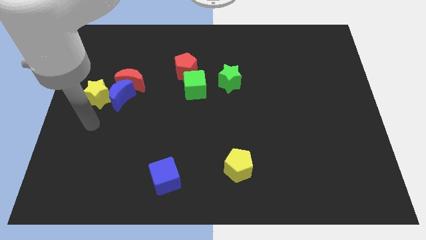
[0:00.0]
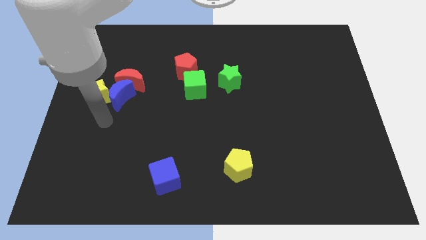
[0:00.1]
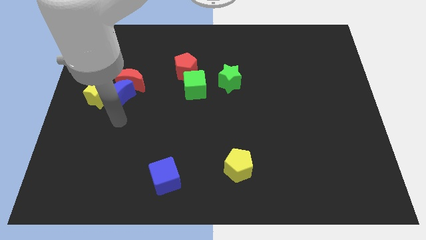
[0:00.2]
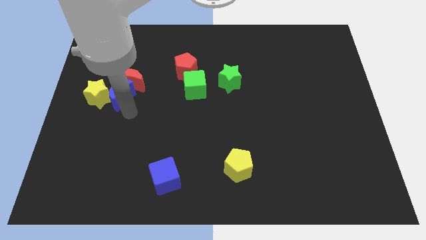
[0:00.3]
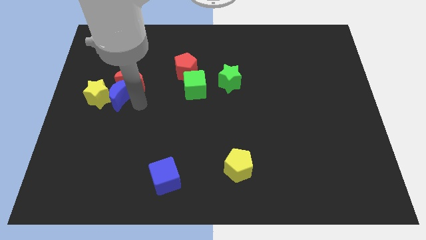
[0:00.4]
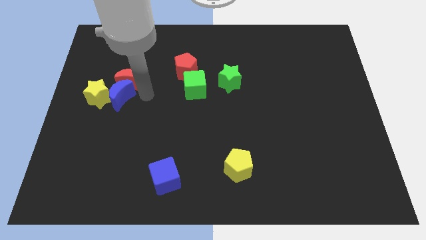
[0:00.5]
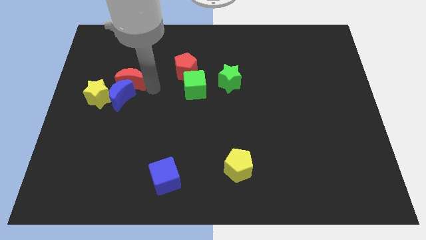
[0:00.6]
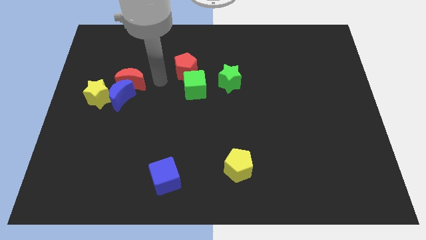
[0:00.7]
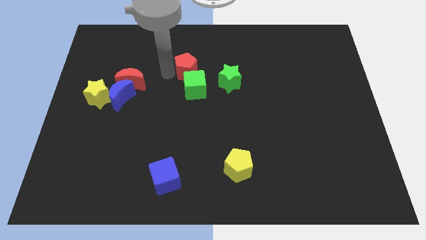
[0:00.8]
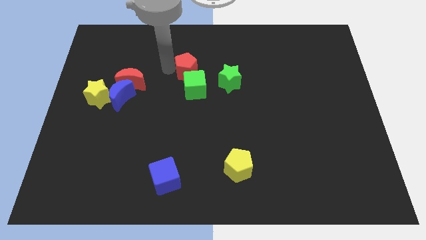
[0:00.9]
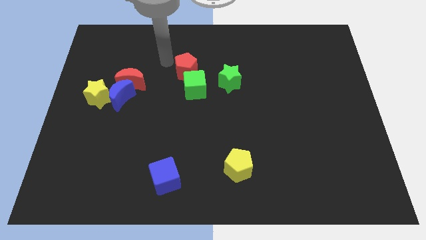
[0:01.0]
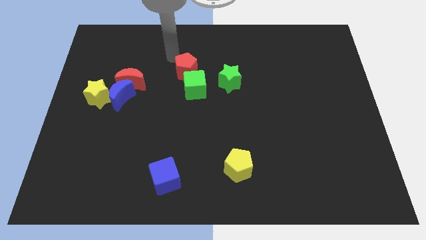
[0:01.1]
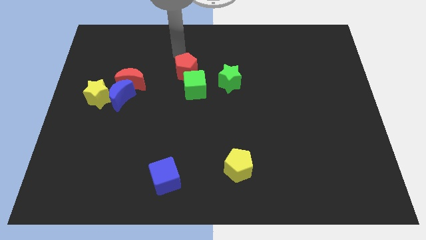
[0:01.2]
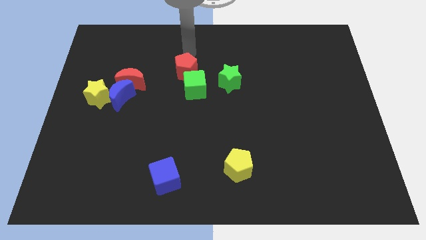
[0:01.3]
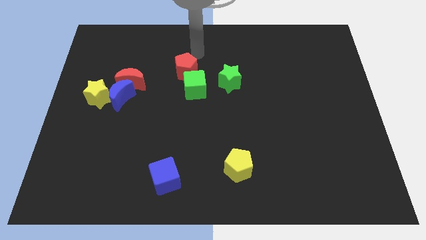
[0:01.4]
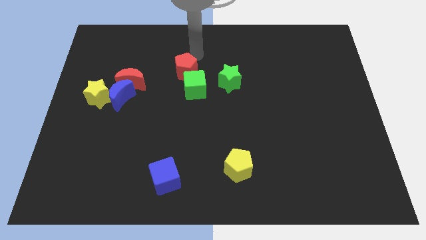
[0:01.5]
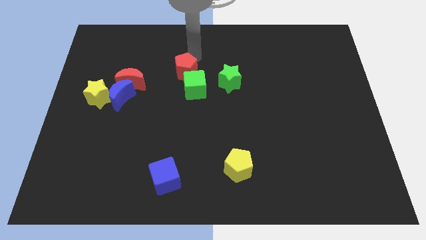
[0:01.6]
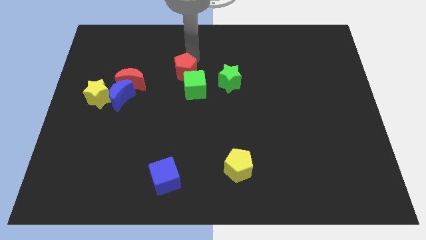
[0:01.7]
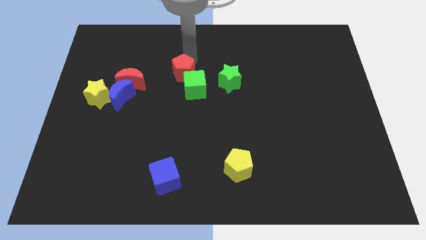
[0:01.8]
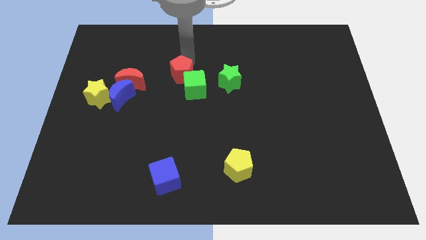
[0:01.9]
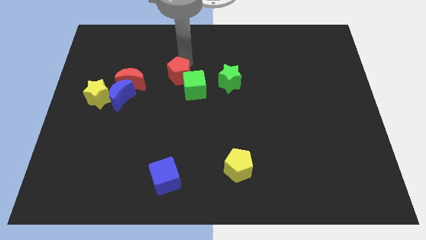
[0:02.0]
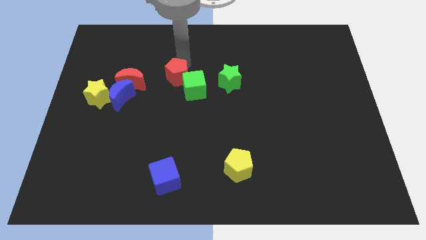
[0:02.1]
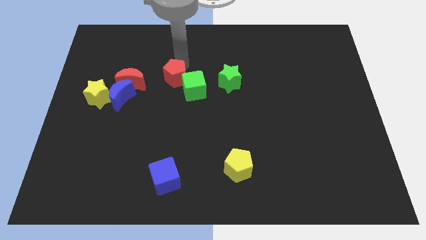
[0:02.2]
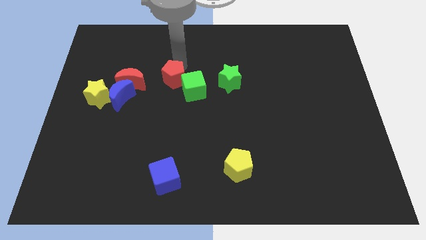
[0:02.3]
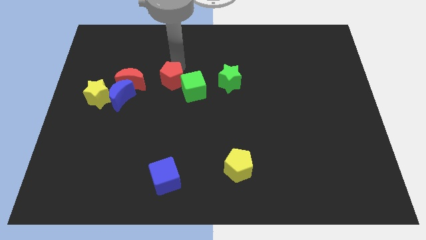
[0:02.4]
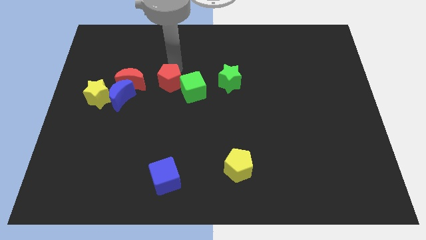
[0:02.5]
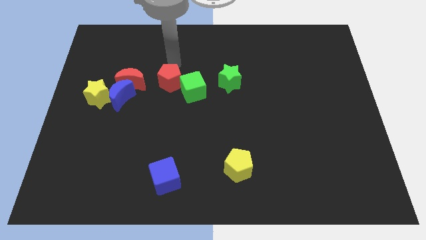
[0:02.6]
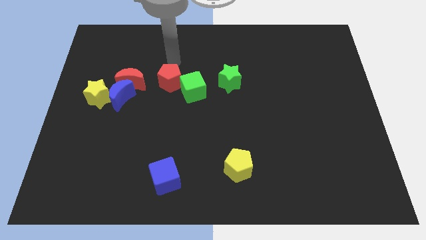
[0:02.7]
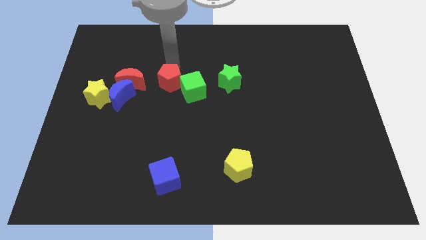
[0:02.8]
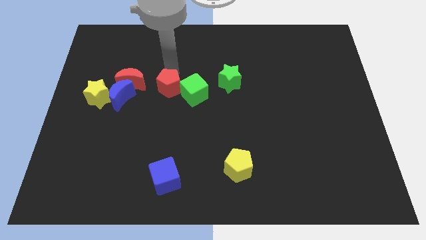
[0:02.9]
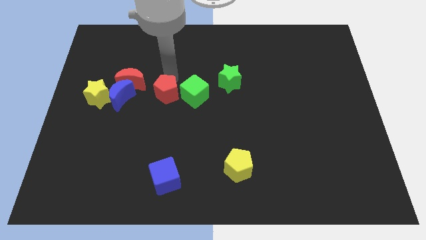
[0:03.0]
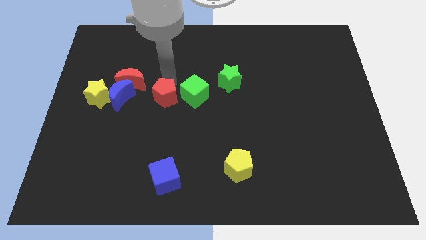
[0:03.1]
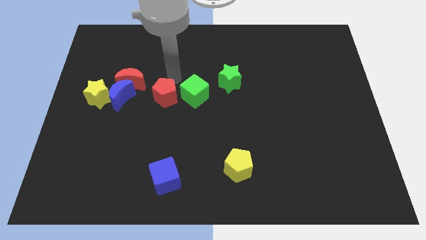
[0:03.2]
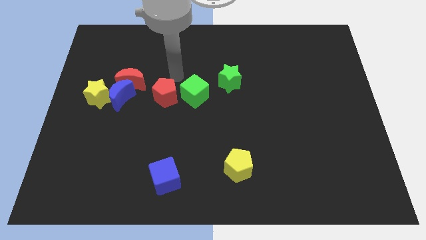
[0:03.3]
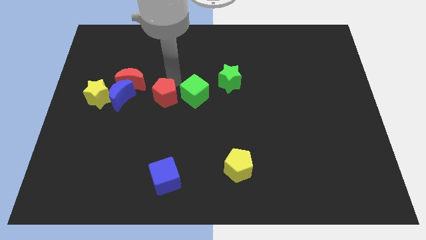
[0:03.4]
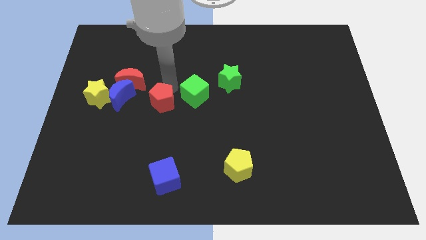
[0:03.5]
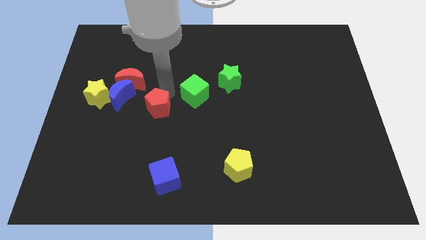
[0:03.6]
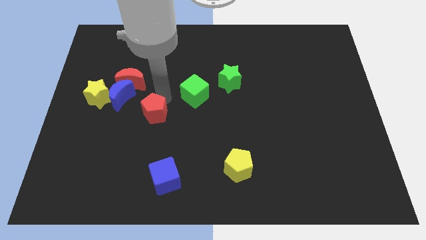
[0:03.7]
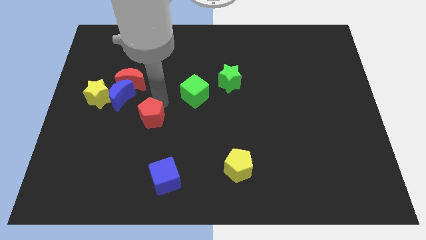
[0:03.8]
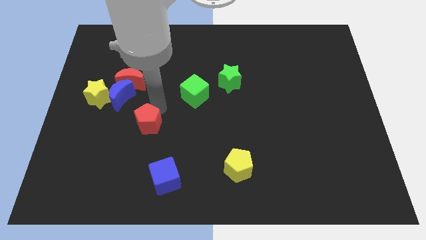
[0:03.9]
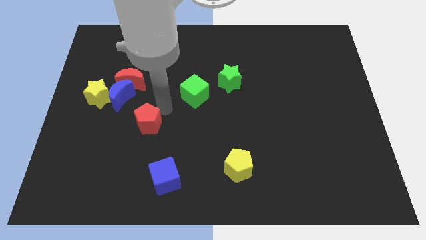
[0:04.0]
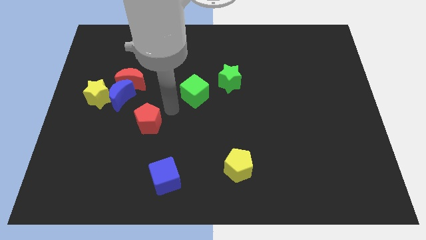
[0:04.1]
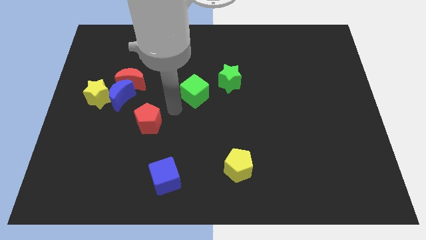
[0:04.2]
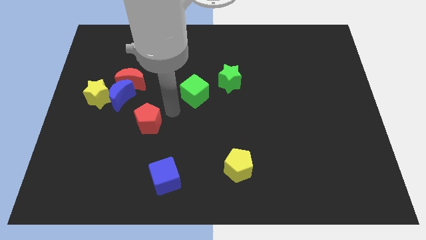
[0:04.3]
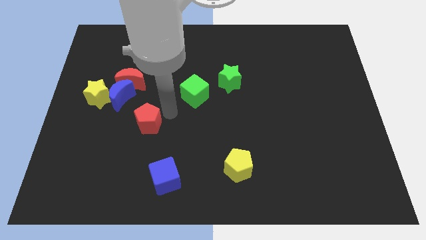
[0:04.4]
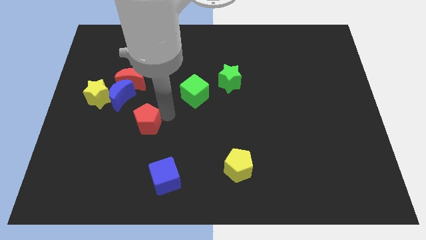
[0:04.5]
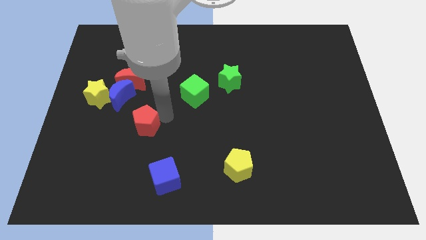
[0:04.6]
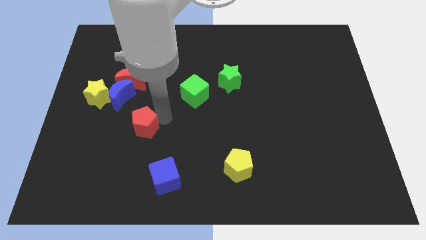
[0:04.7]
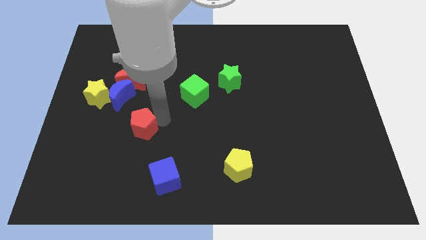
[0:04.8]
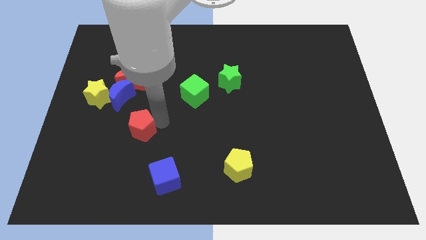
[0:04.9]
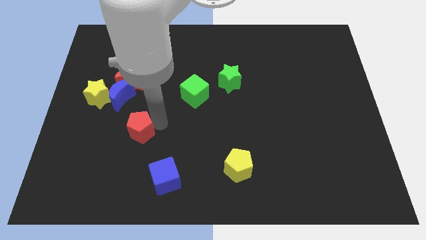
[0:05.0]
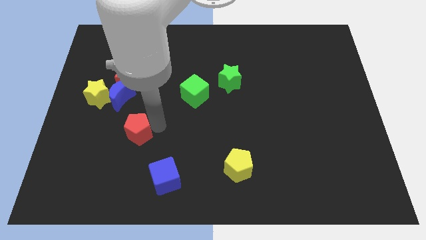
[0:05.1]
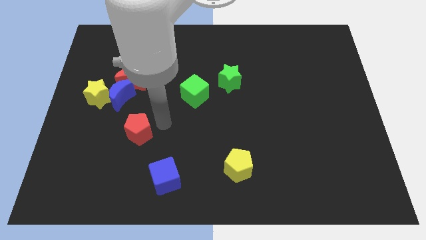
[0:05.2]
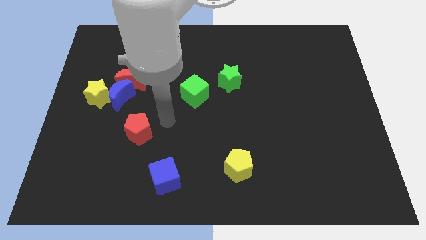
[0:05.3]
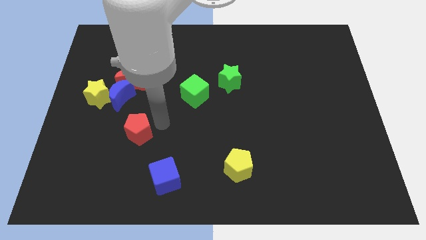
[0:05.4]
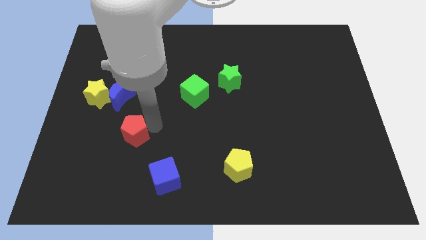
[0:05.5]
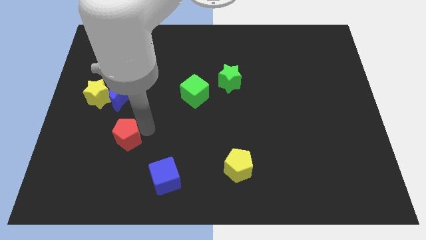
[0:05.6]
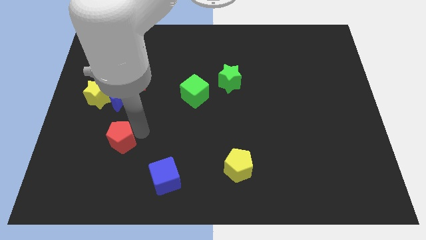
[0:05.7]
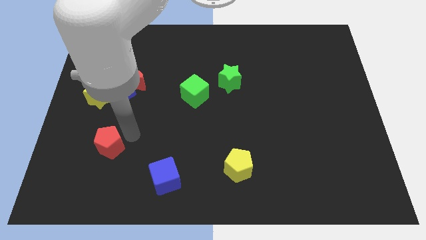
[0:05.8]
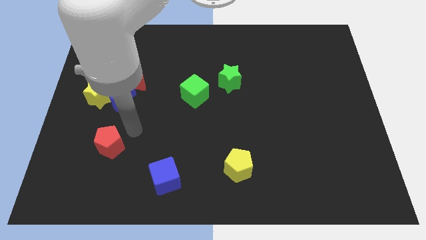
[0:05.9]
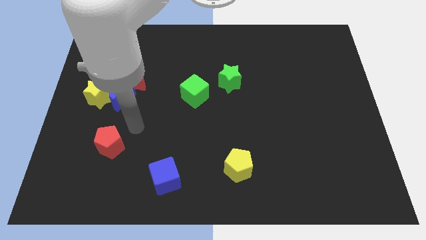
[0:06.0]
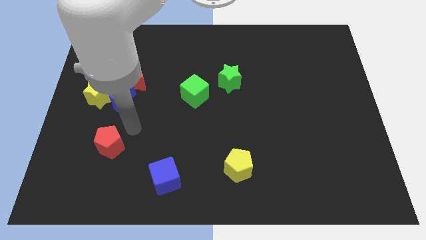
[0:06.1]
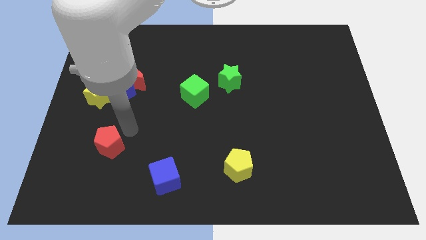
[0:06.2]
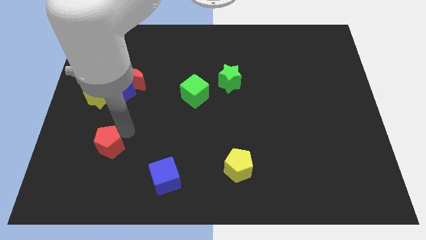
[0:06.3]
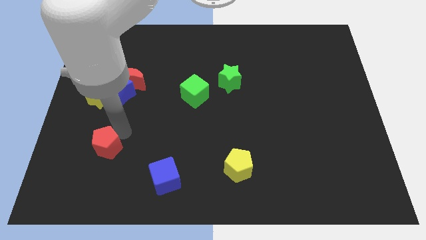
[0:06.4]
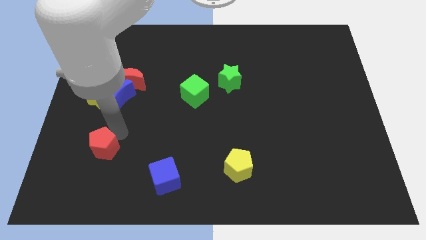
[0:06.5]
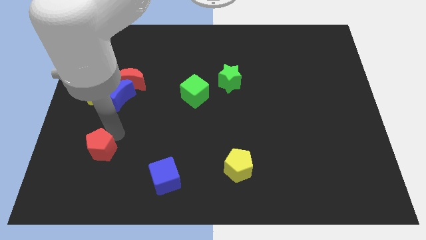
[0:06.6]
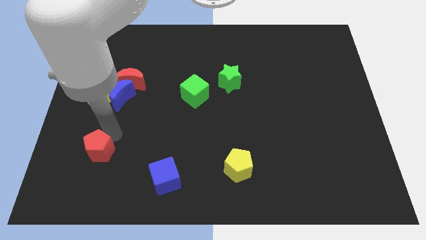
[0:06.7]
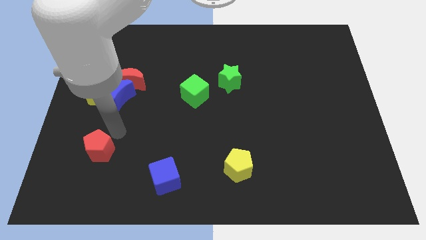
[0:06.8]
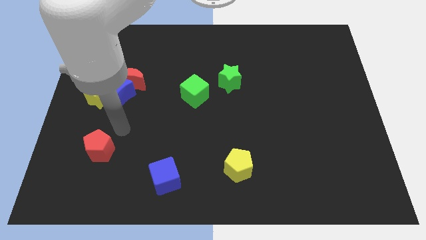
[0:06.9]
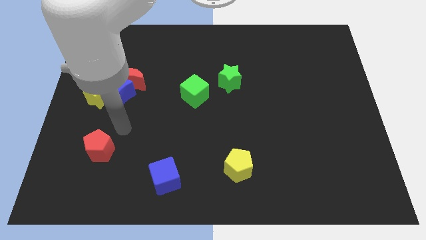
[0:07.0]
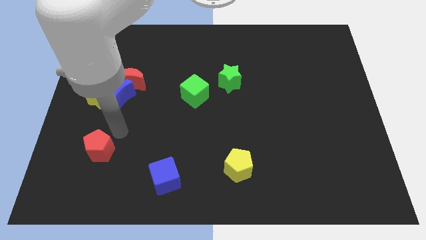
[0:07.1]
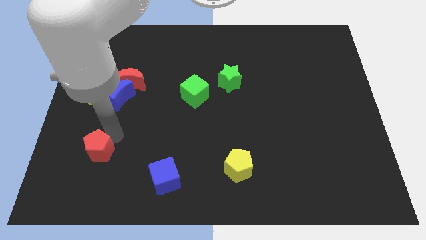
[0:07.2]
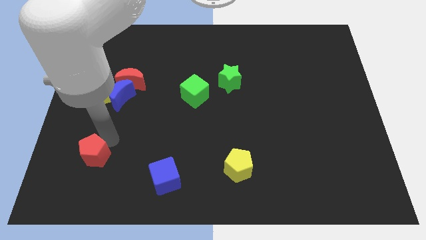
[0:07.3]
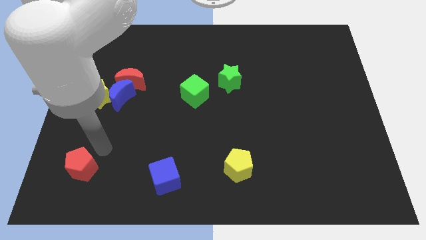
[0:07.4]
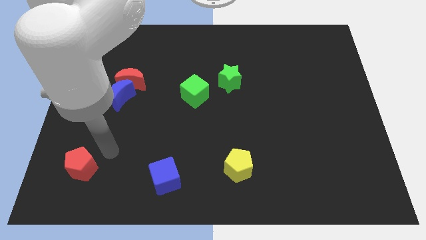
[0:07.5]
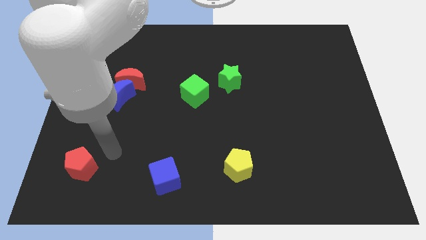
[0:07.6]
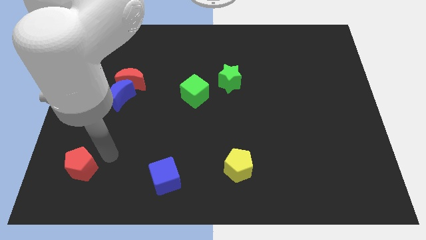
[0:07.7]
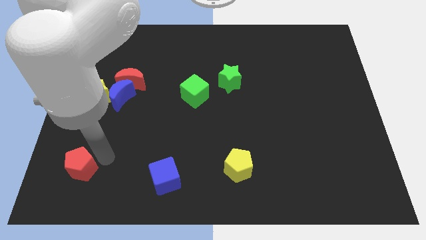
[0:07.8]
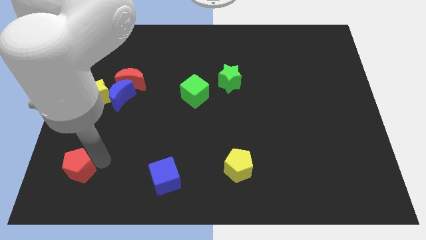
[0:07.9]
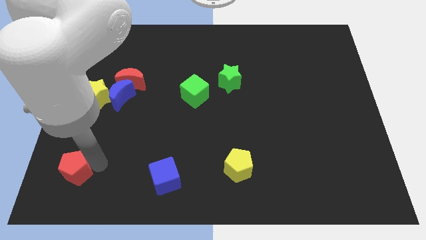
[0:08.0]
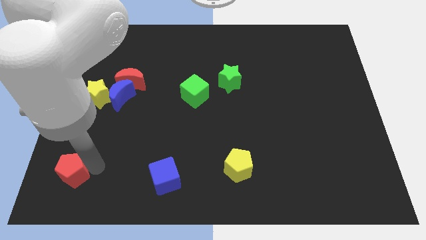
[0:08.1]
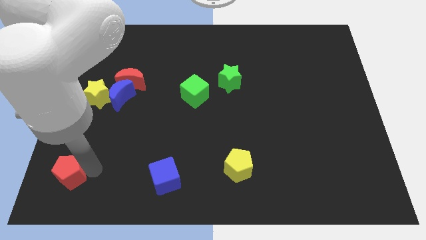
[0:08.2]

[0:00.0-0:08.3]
slide the red pentagon to the bottom left
